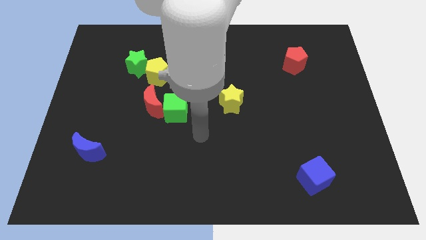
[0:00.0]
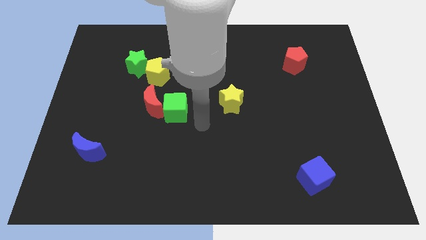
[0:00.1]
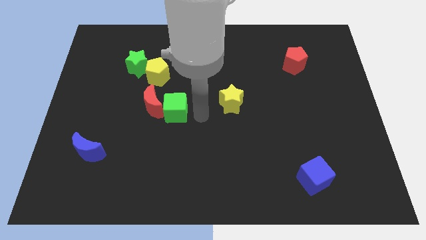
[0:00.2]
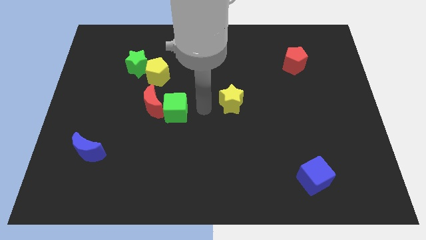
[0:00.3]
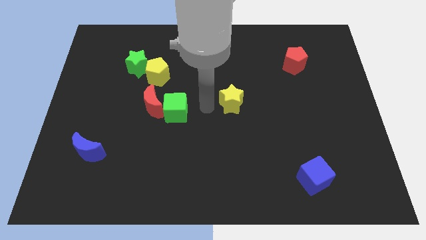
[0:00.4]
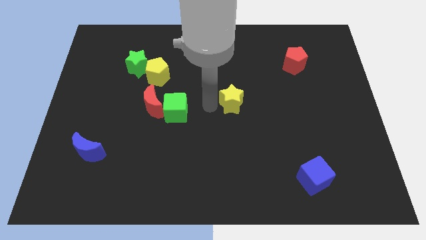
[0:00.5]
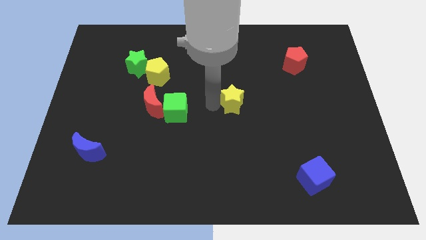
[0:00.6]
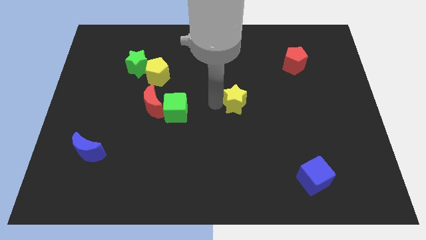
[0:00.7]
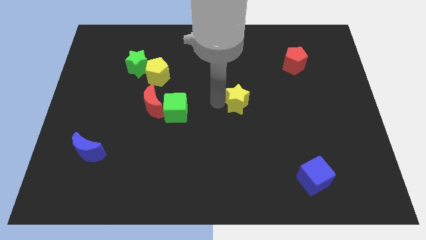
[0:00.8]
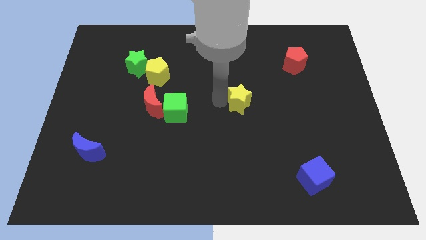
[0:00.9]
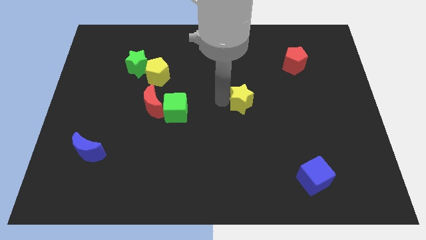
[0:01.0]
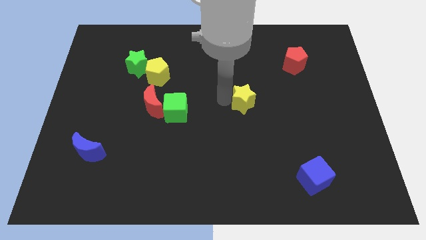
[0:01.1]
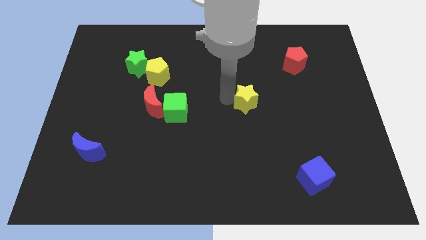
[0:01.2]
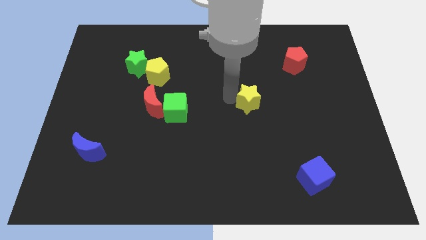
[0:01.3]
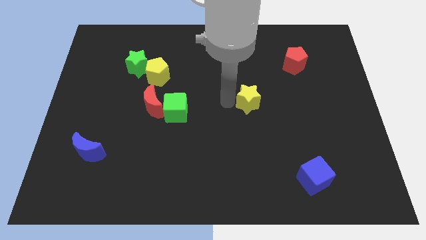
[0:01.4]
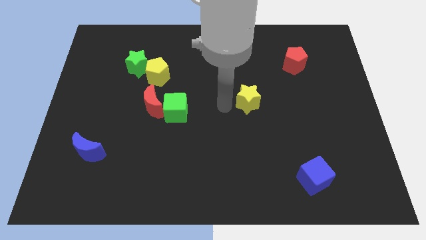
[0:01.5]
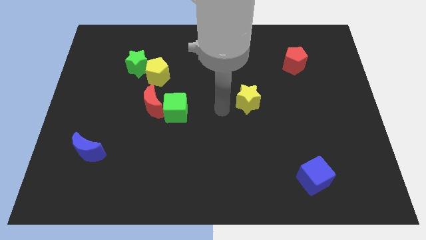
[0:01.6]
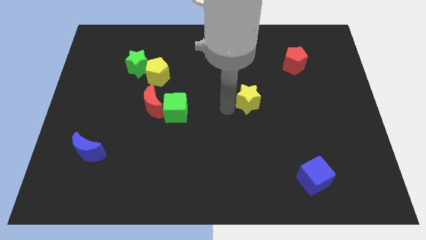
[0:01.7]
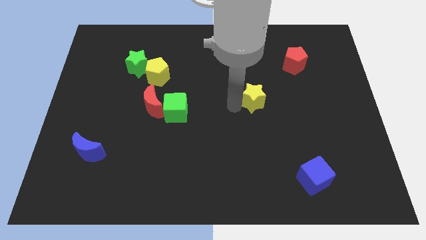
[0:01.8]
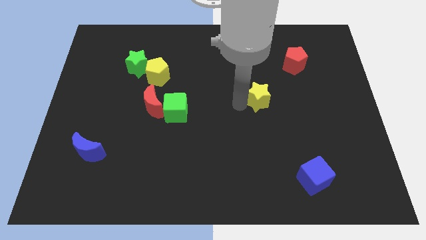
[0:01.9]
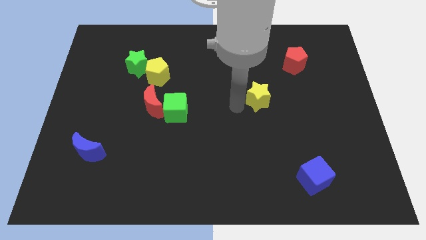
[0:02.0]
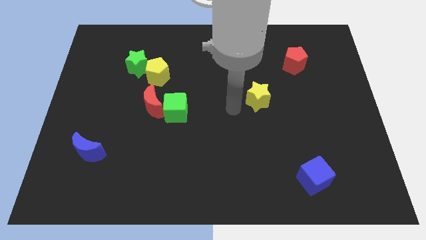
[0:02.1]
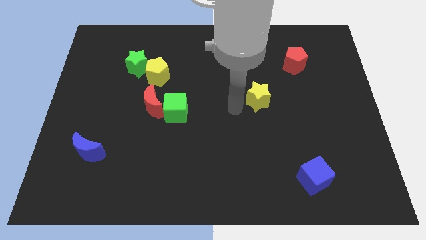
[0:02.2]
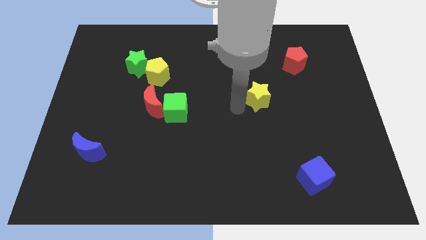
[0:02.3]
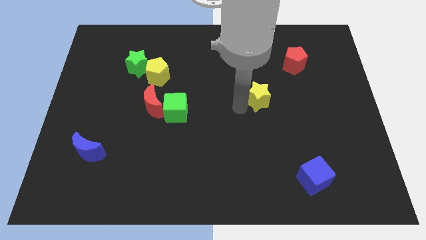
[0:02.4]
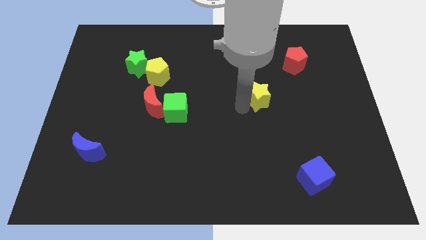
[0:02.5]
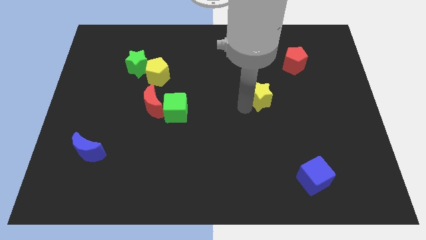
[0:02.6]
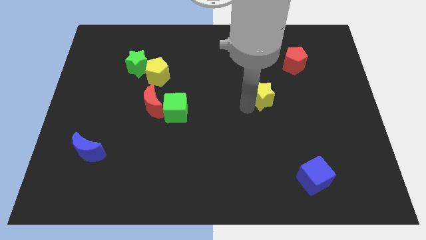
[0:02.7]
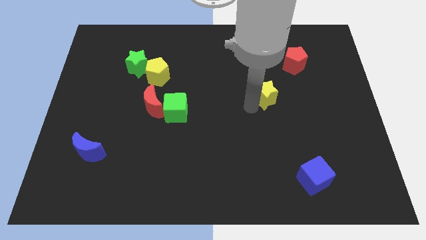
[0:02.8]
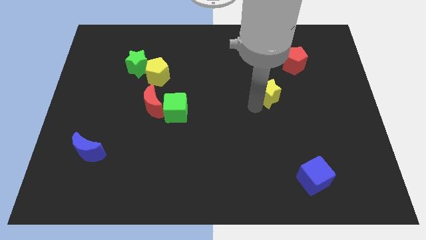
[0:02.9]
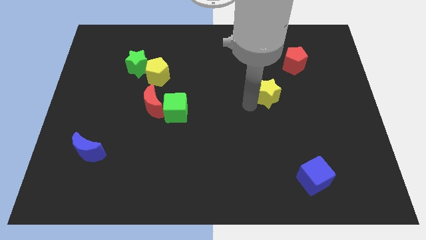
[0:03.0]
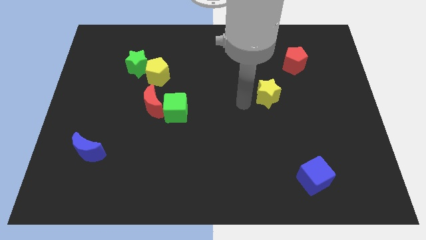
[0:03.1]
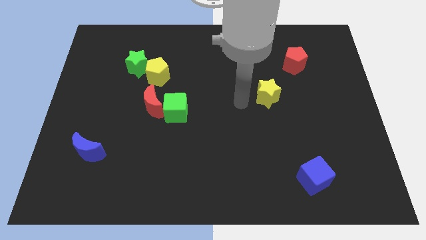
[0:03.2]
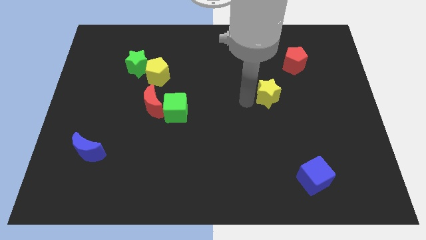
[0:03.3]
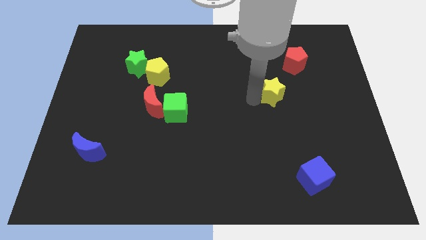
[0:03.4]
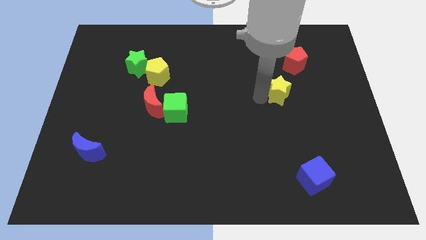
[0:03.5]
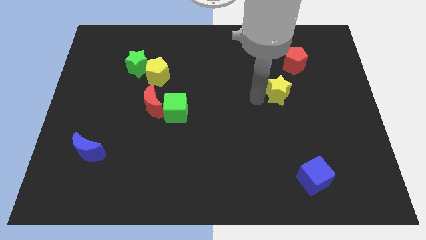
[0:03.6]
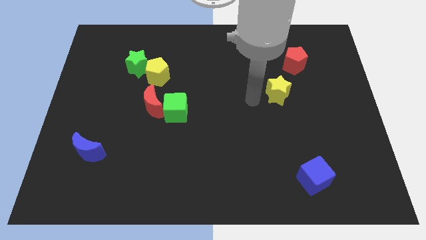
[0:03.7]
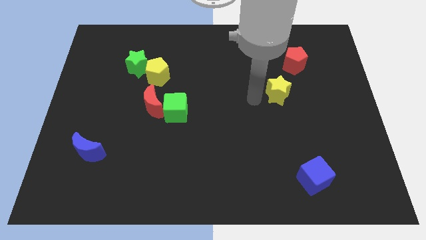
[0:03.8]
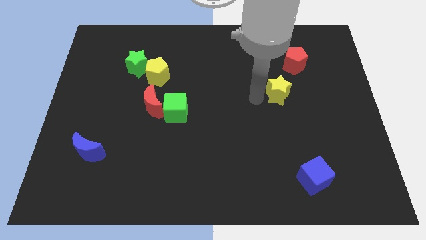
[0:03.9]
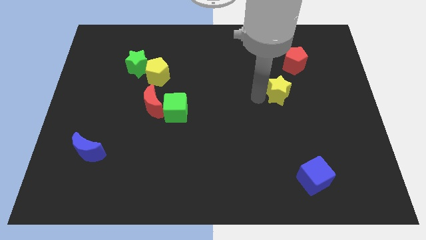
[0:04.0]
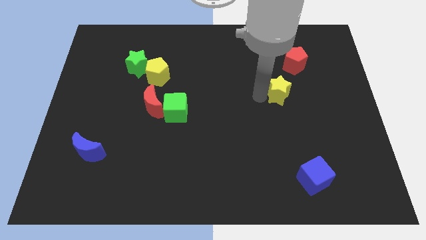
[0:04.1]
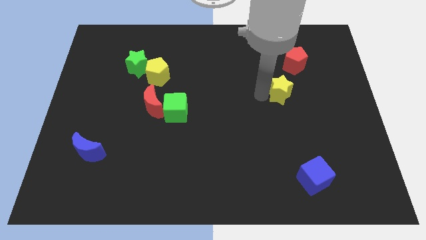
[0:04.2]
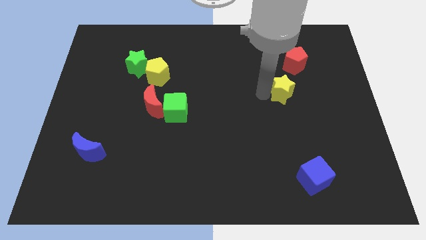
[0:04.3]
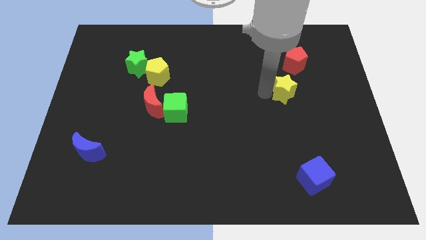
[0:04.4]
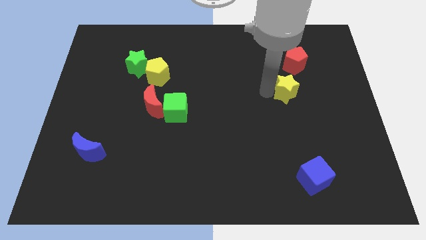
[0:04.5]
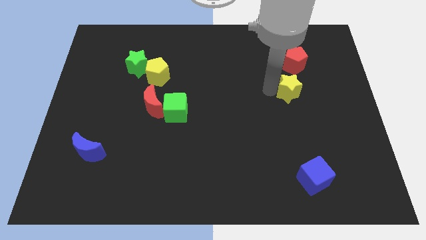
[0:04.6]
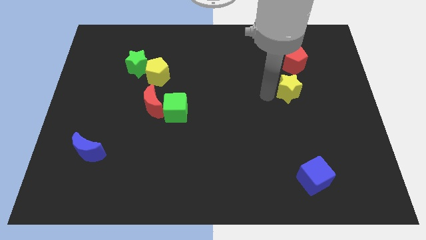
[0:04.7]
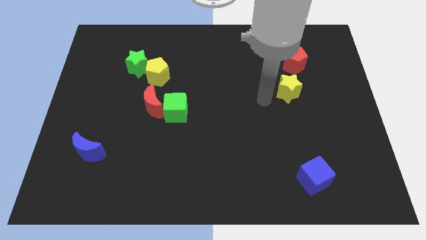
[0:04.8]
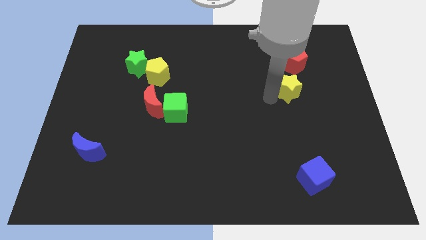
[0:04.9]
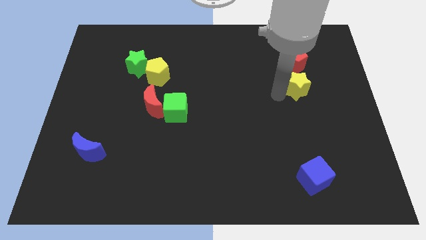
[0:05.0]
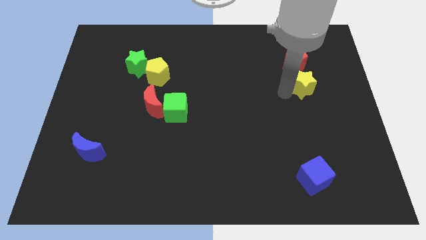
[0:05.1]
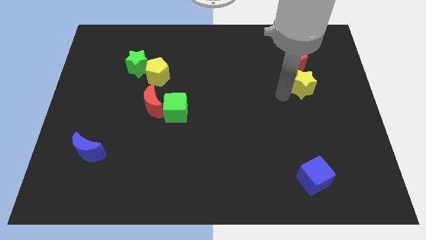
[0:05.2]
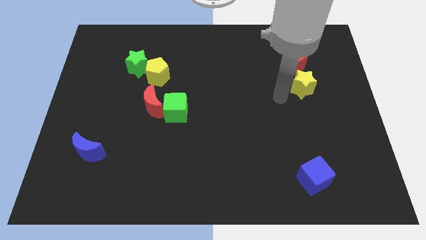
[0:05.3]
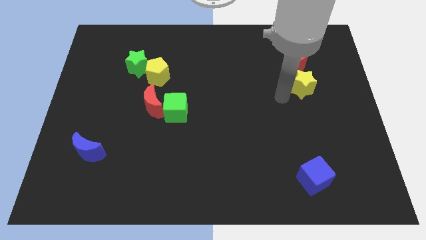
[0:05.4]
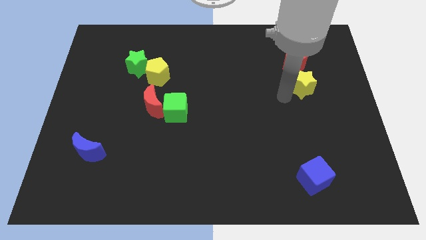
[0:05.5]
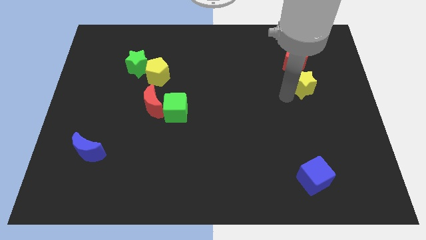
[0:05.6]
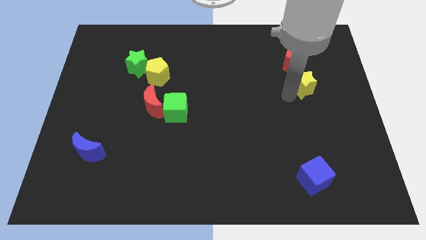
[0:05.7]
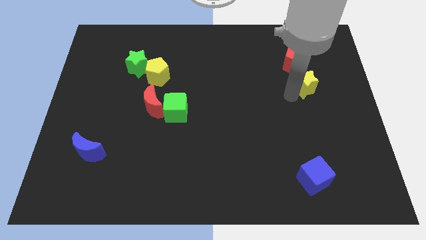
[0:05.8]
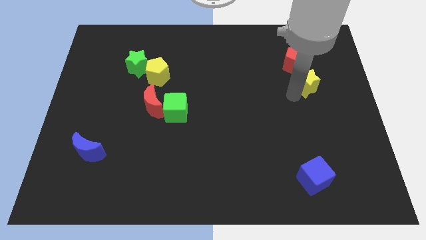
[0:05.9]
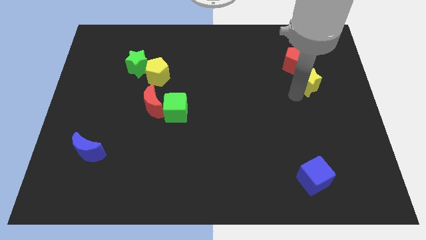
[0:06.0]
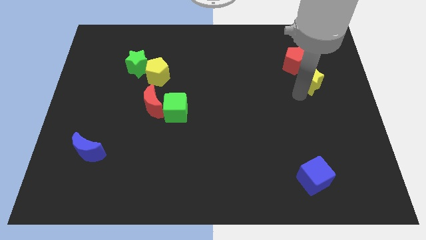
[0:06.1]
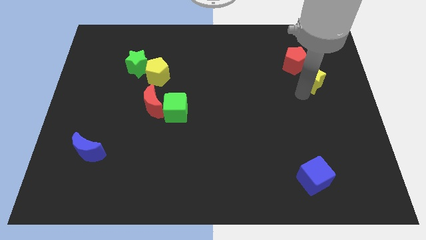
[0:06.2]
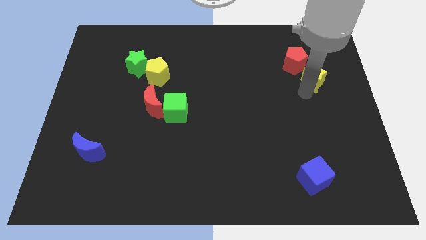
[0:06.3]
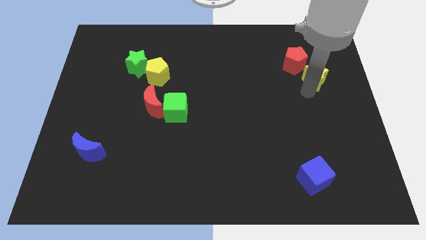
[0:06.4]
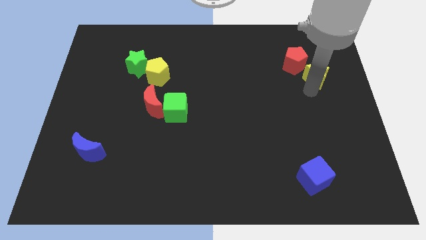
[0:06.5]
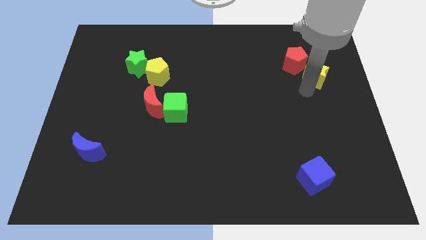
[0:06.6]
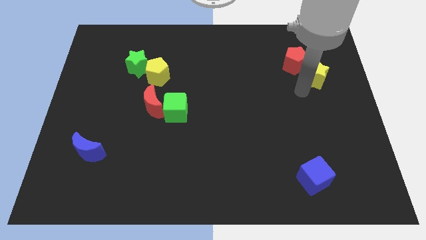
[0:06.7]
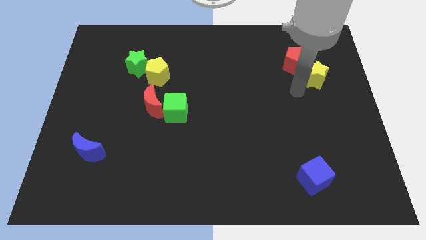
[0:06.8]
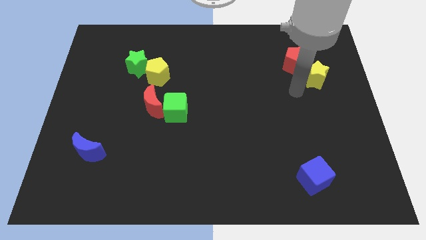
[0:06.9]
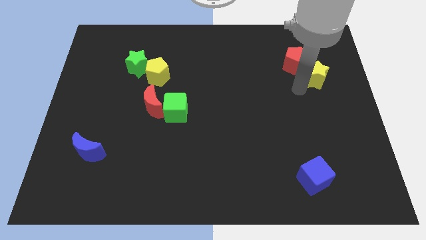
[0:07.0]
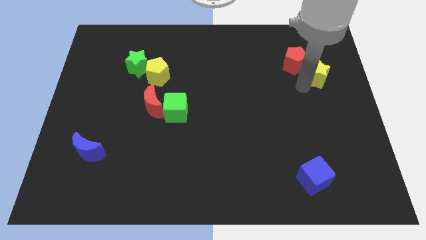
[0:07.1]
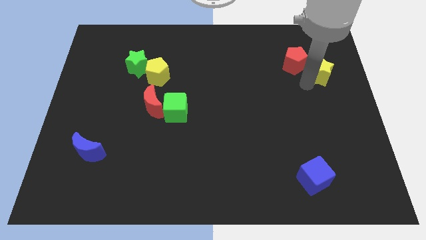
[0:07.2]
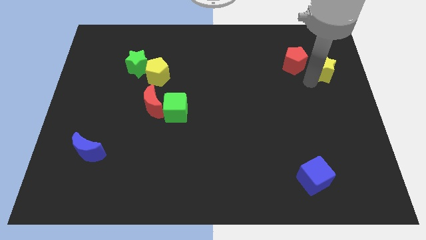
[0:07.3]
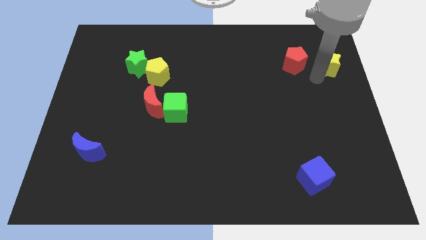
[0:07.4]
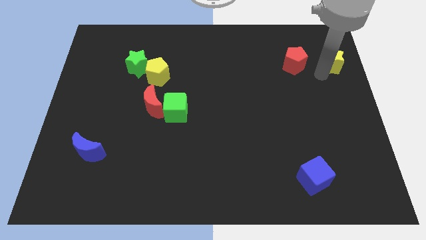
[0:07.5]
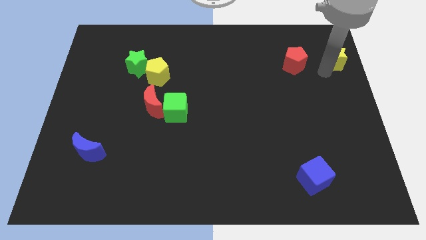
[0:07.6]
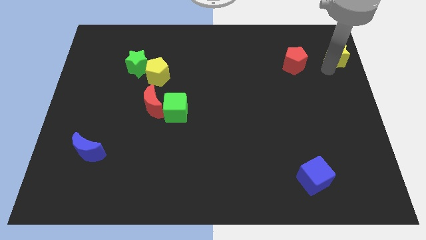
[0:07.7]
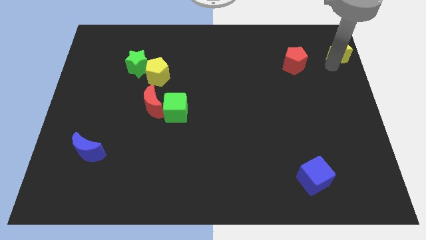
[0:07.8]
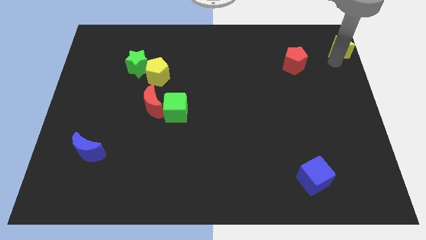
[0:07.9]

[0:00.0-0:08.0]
put the yellow star to the upper right corner
